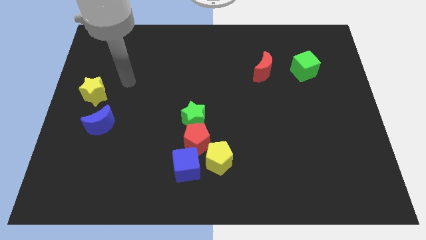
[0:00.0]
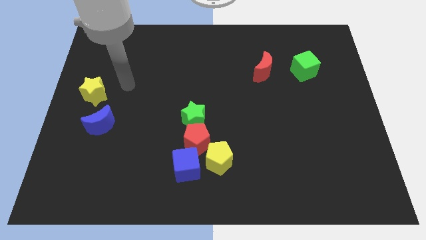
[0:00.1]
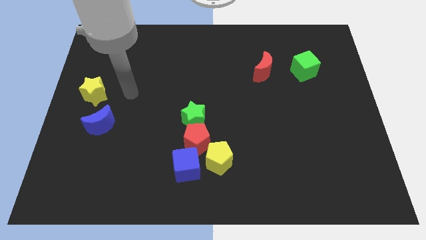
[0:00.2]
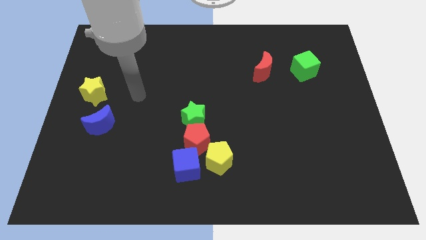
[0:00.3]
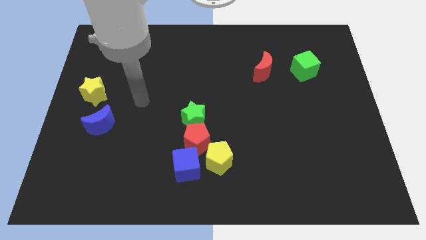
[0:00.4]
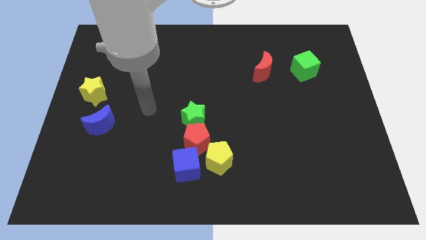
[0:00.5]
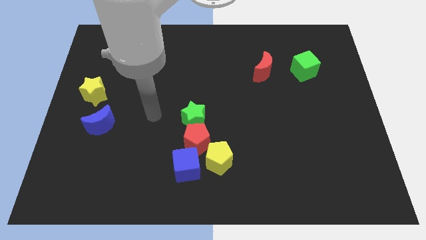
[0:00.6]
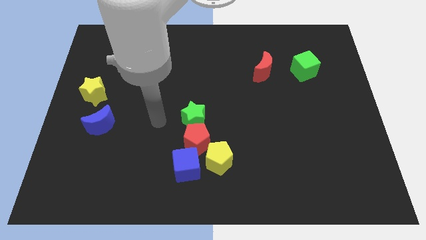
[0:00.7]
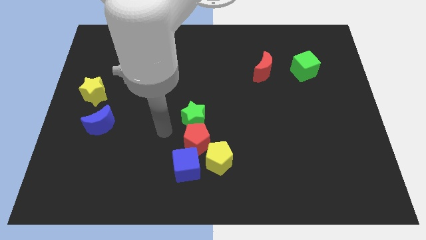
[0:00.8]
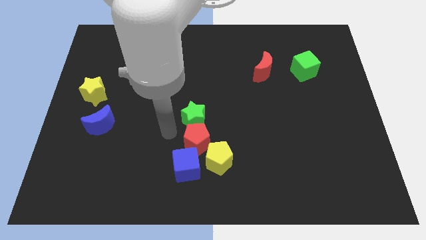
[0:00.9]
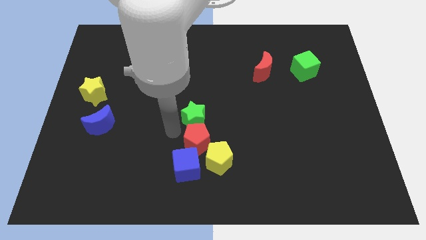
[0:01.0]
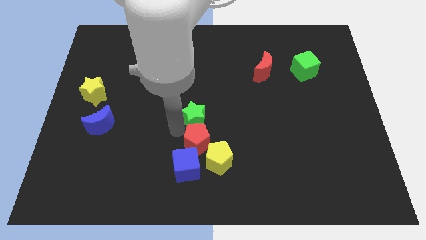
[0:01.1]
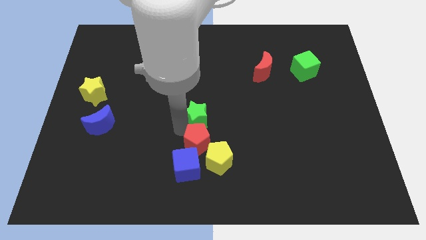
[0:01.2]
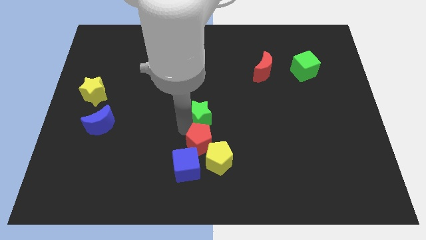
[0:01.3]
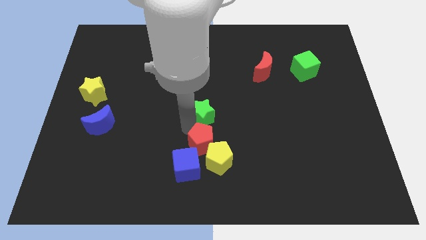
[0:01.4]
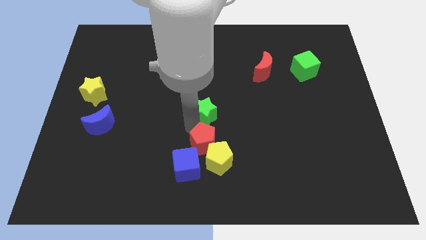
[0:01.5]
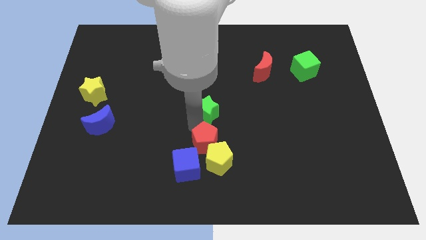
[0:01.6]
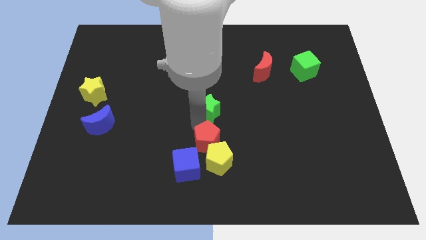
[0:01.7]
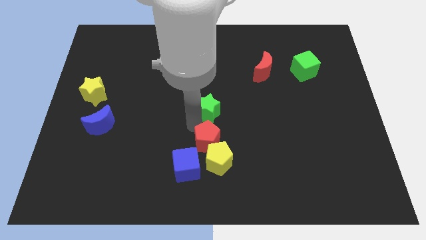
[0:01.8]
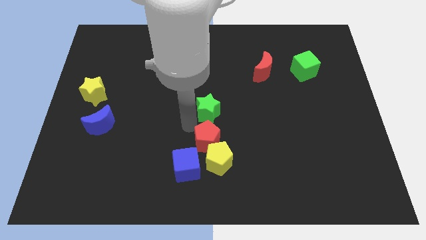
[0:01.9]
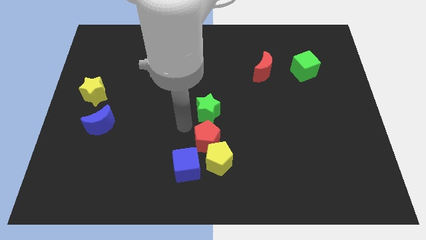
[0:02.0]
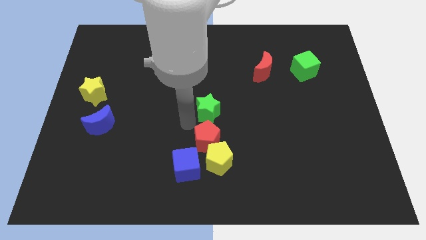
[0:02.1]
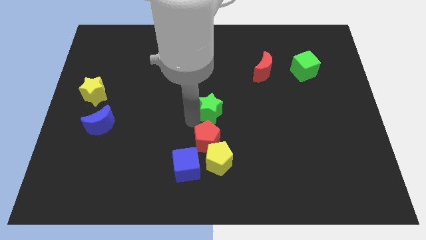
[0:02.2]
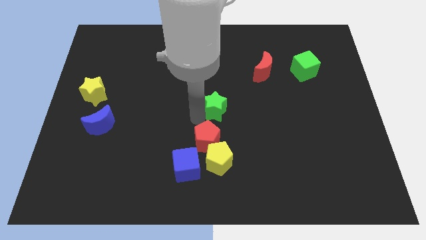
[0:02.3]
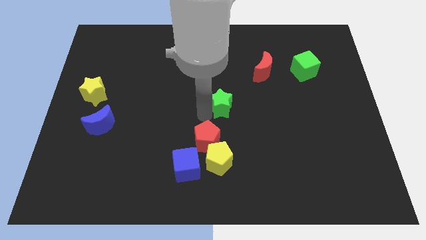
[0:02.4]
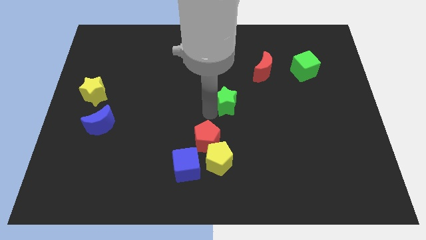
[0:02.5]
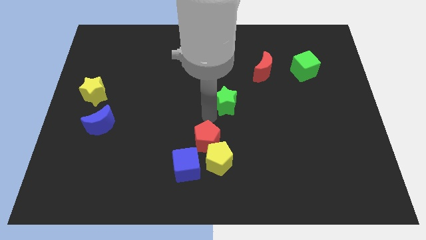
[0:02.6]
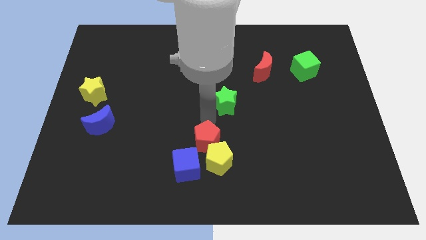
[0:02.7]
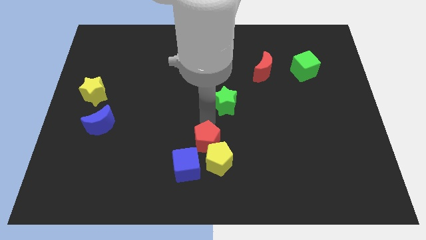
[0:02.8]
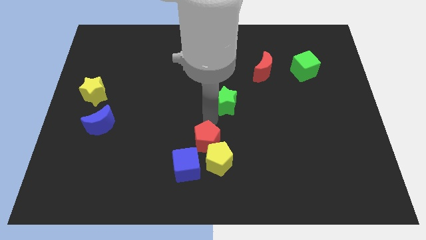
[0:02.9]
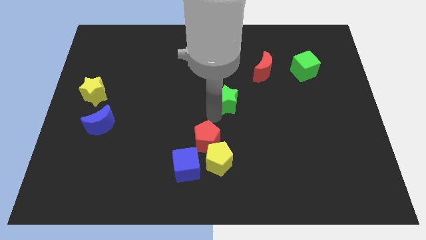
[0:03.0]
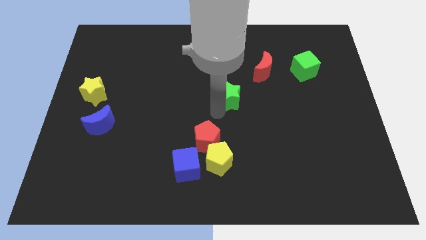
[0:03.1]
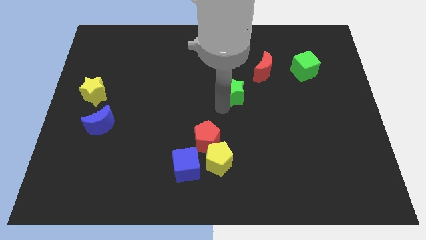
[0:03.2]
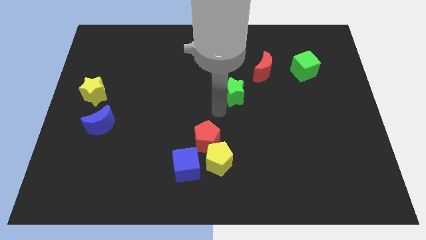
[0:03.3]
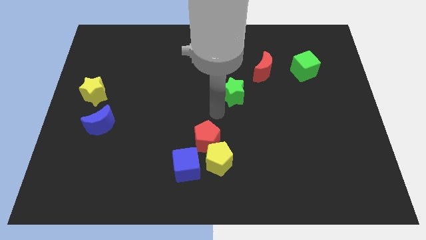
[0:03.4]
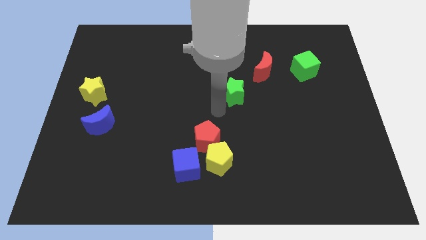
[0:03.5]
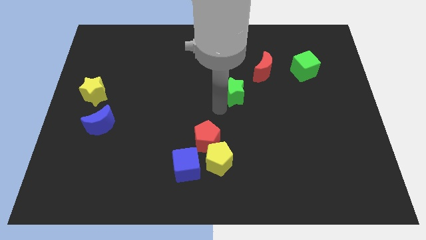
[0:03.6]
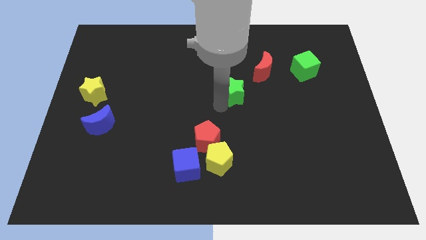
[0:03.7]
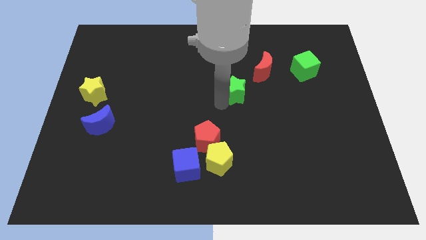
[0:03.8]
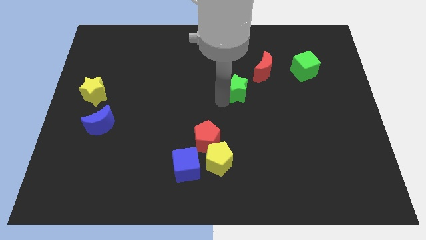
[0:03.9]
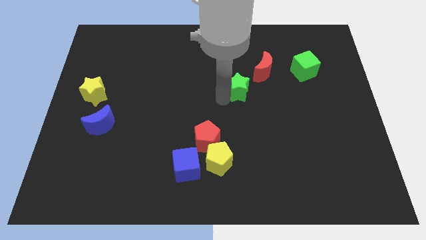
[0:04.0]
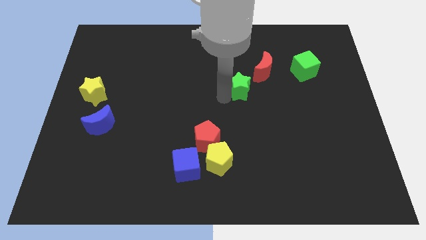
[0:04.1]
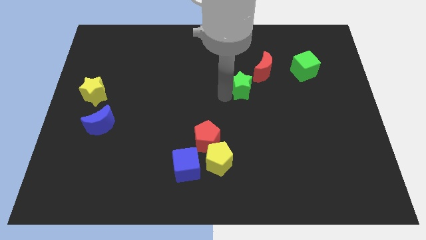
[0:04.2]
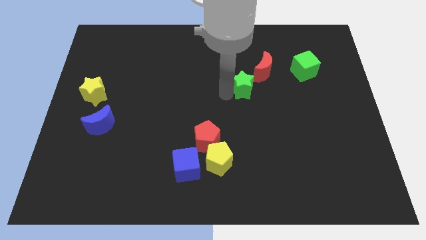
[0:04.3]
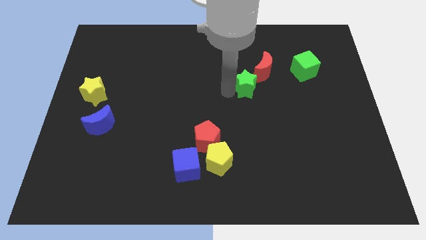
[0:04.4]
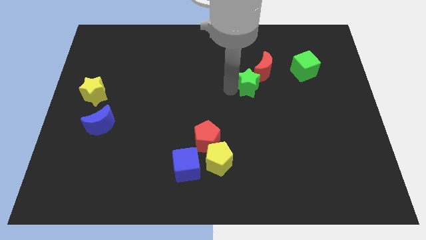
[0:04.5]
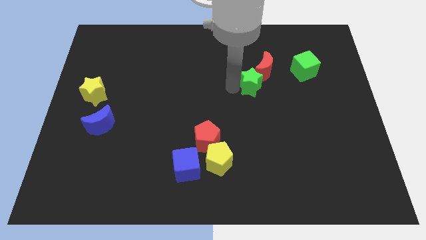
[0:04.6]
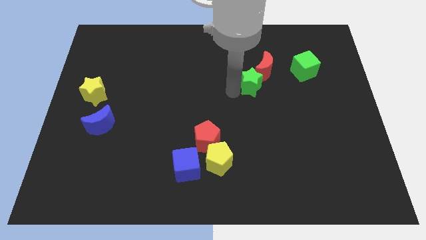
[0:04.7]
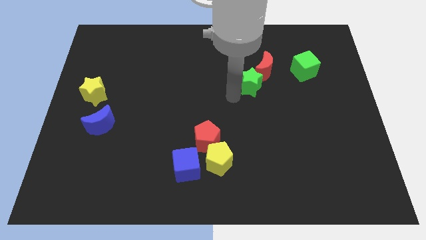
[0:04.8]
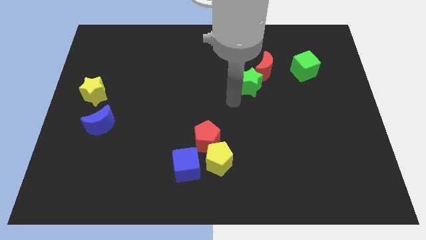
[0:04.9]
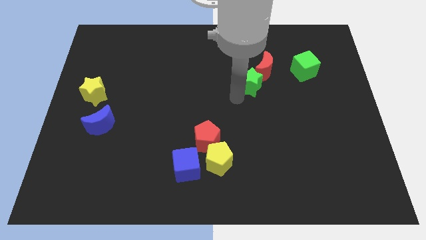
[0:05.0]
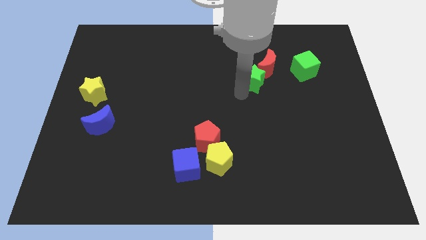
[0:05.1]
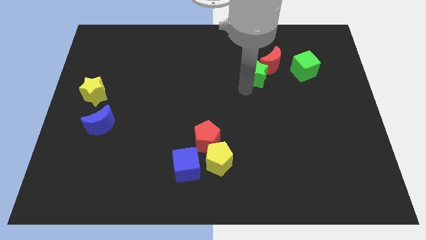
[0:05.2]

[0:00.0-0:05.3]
push the green star to the red moon

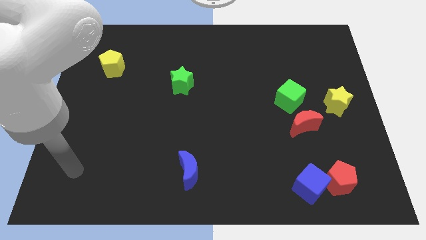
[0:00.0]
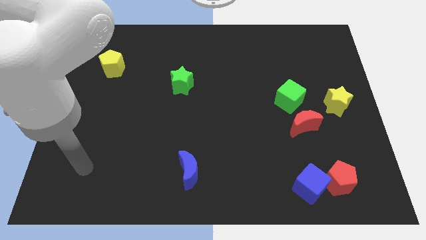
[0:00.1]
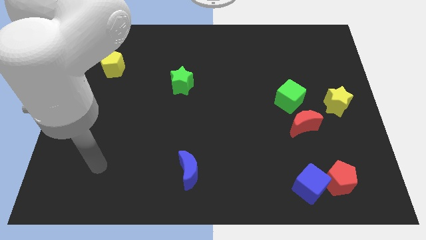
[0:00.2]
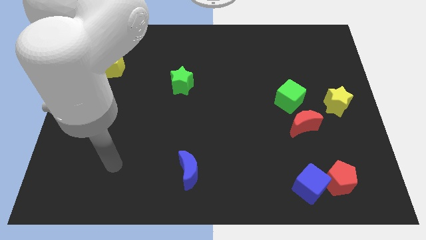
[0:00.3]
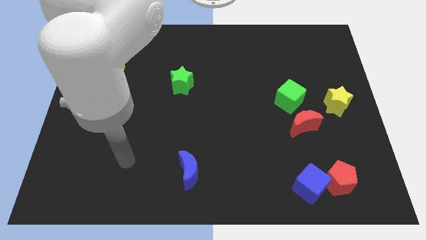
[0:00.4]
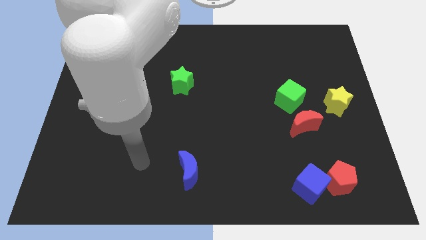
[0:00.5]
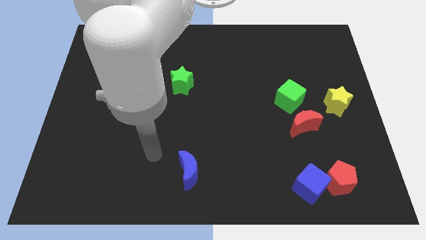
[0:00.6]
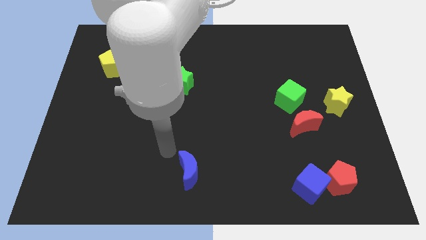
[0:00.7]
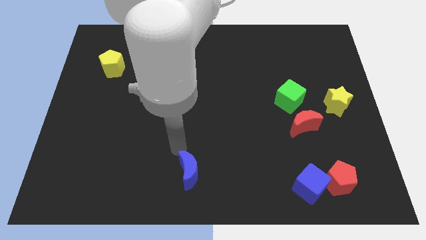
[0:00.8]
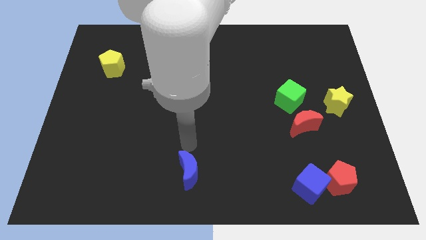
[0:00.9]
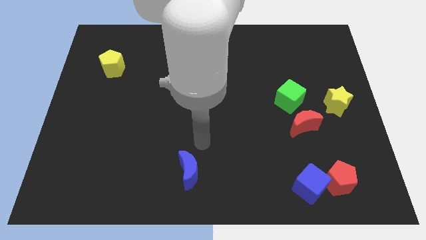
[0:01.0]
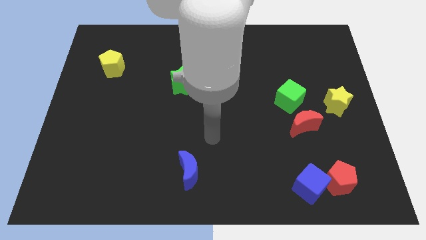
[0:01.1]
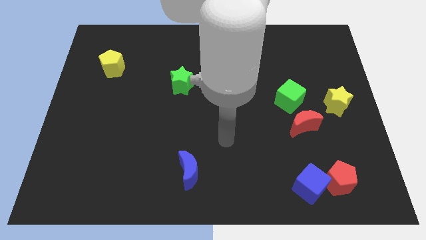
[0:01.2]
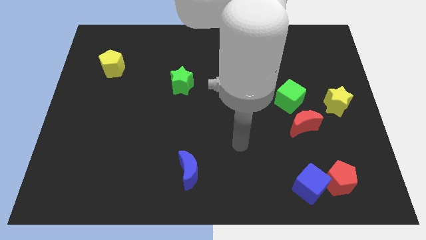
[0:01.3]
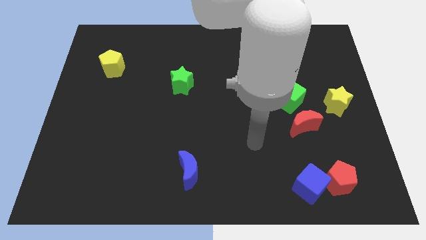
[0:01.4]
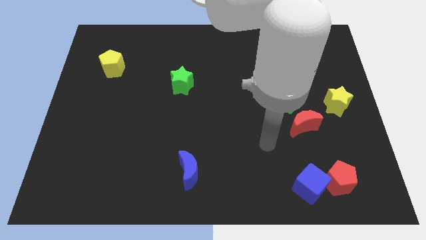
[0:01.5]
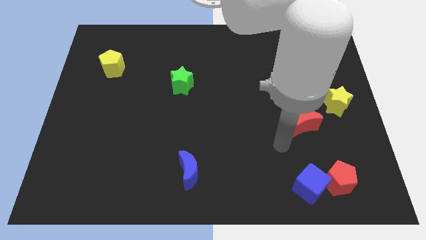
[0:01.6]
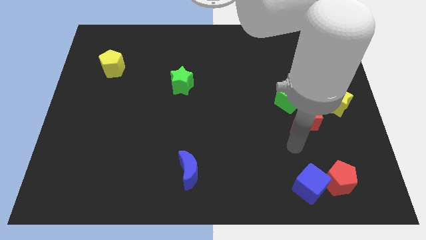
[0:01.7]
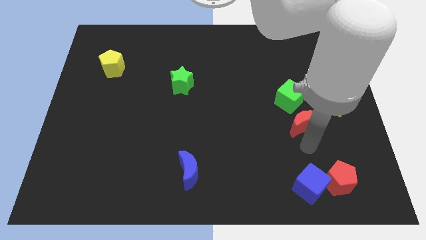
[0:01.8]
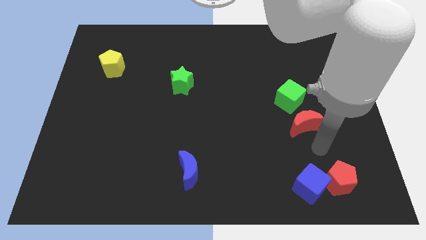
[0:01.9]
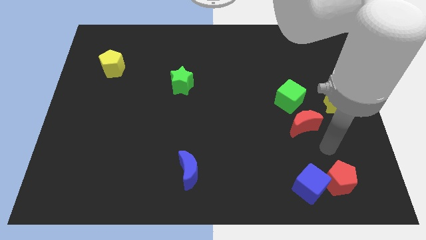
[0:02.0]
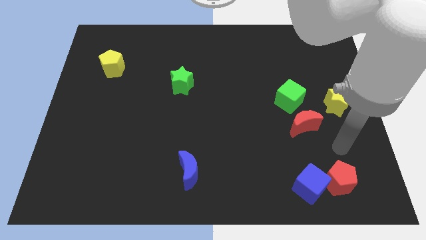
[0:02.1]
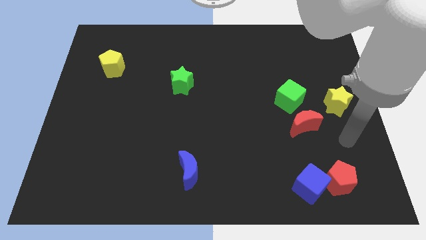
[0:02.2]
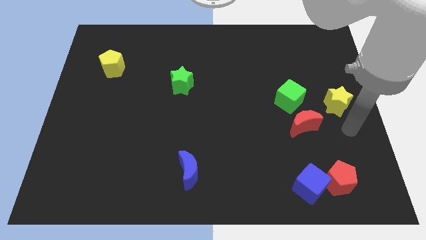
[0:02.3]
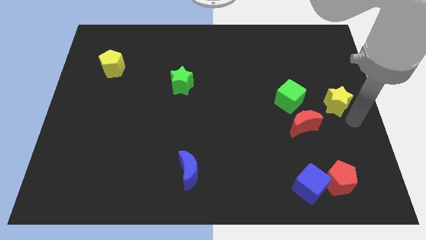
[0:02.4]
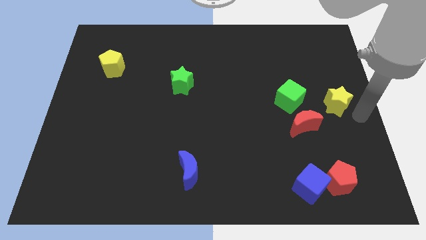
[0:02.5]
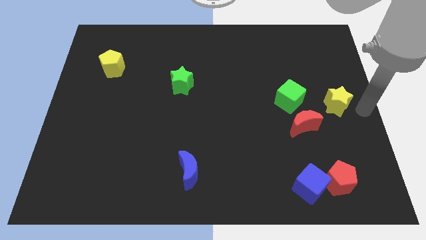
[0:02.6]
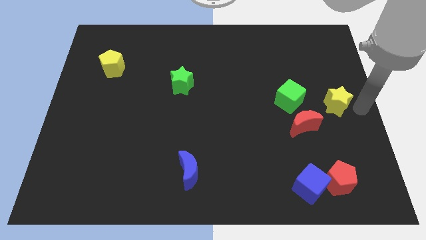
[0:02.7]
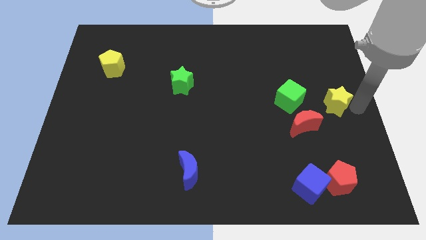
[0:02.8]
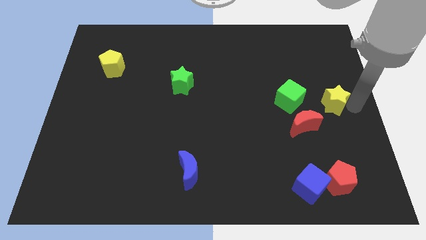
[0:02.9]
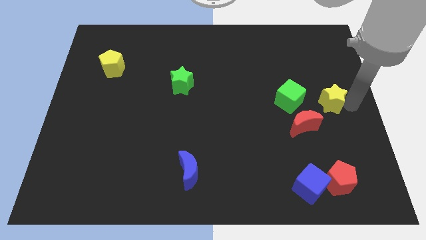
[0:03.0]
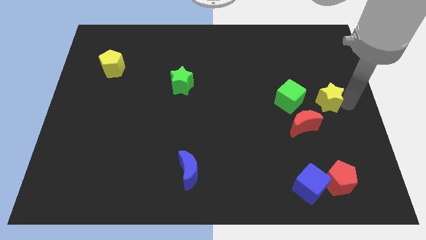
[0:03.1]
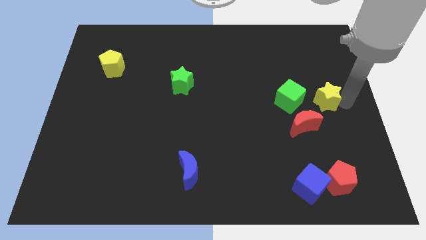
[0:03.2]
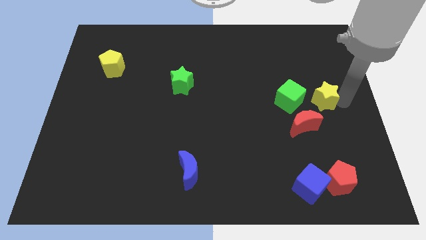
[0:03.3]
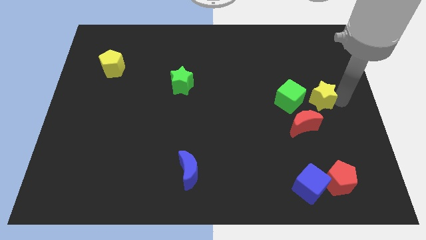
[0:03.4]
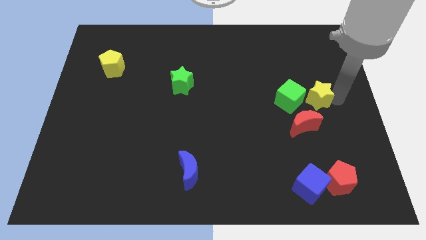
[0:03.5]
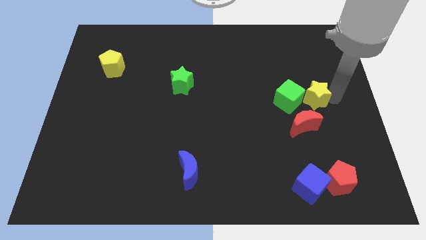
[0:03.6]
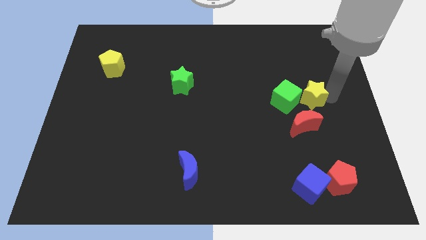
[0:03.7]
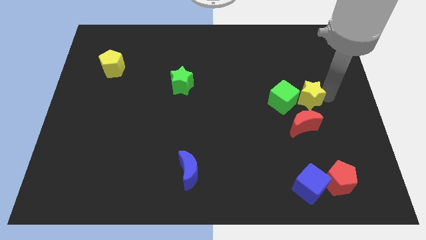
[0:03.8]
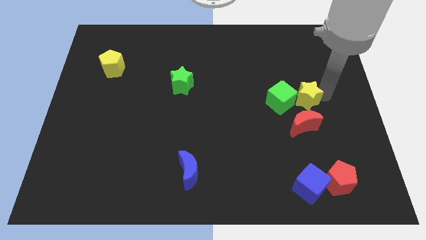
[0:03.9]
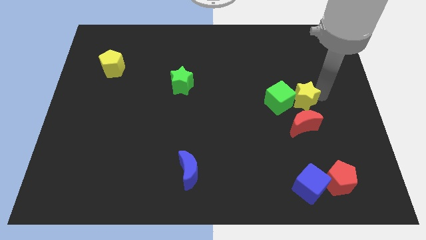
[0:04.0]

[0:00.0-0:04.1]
slide the yellow star next to the green cube
